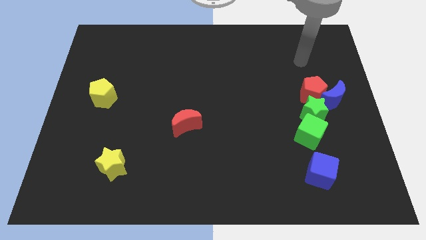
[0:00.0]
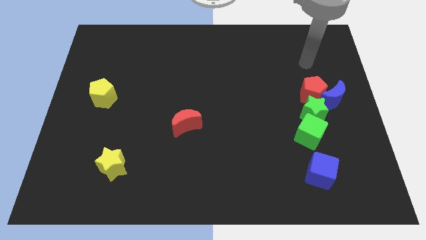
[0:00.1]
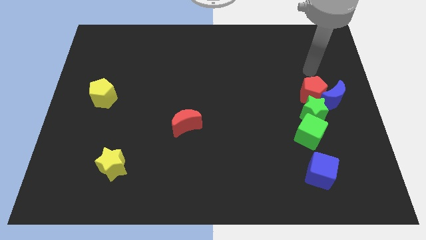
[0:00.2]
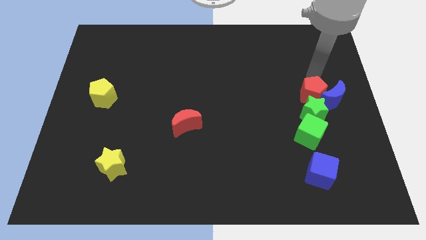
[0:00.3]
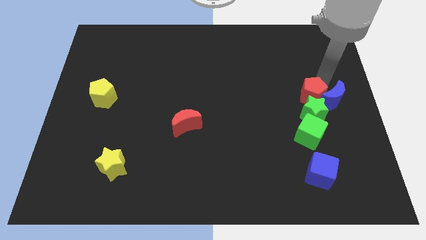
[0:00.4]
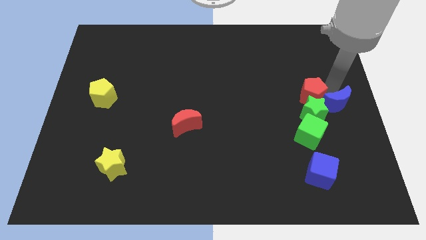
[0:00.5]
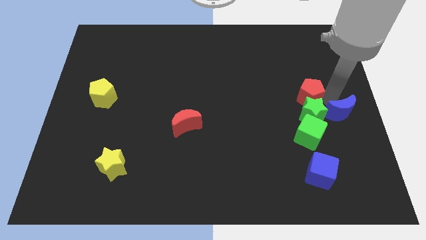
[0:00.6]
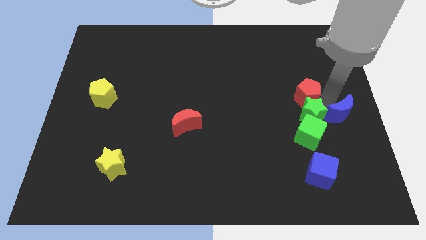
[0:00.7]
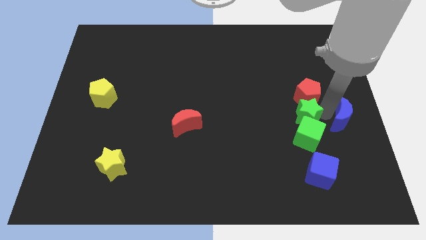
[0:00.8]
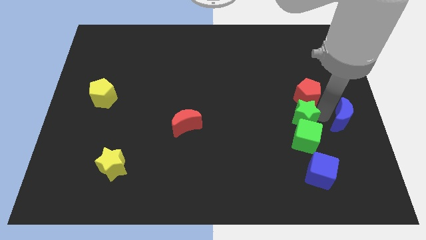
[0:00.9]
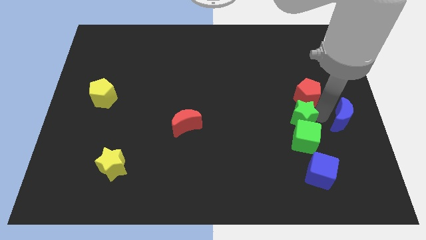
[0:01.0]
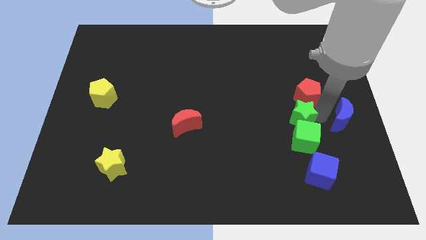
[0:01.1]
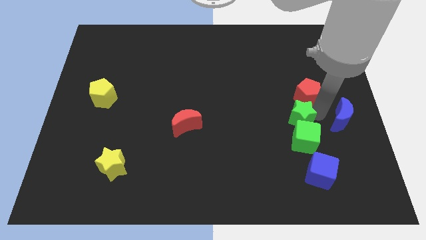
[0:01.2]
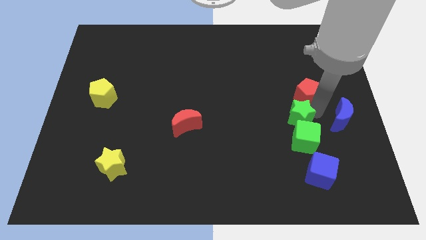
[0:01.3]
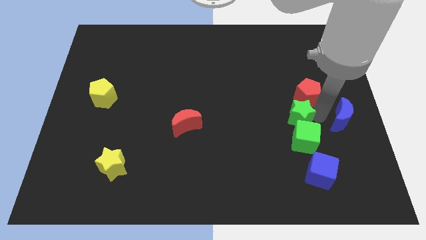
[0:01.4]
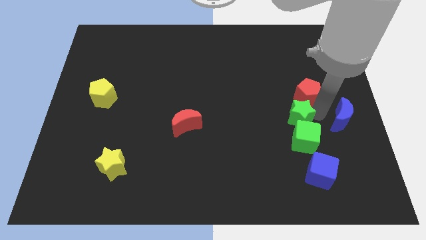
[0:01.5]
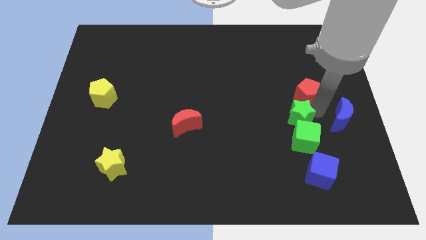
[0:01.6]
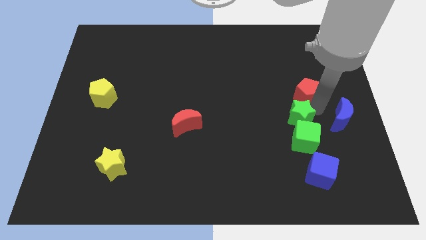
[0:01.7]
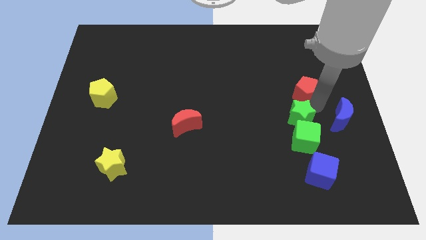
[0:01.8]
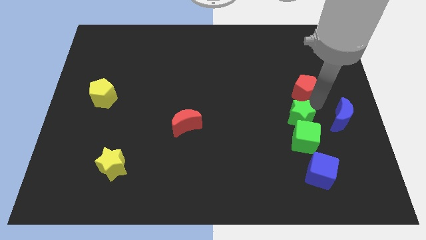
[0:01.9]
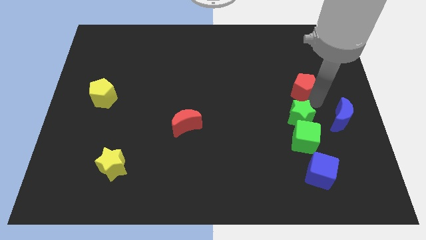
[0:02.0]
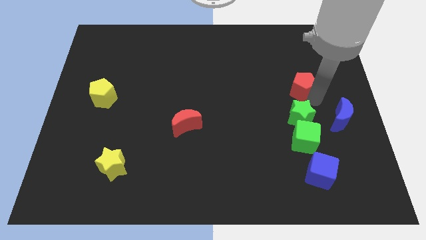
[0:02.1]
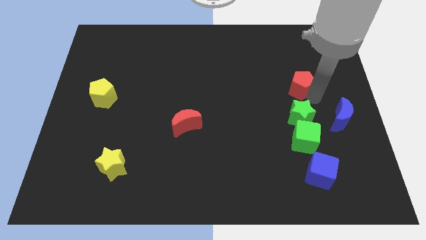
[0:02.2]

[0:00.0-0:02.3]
separate the red pentagon from the blue moon and green star

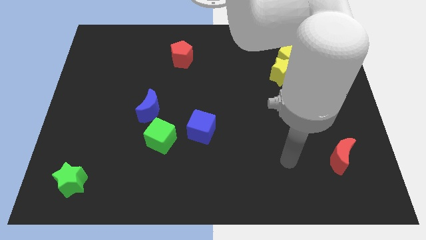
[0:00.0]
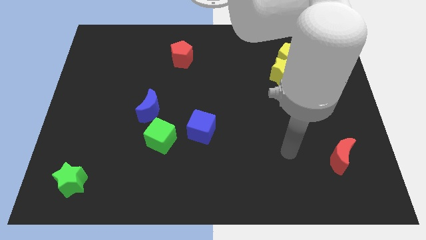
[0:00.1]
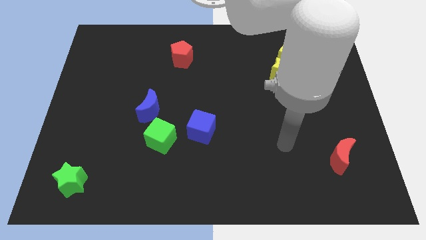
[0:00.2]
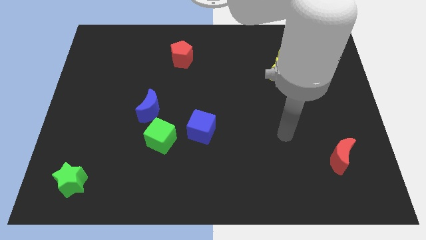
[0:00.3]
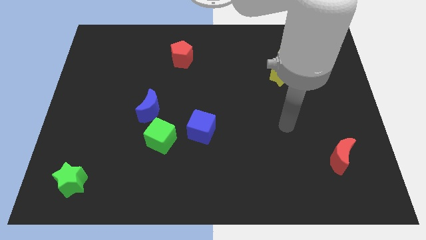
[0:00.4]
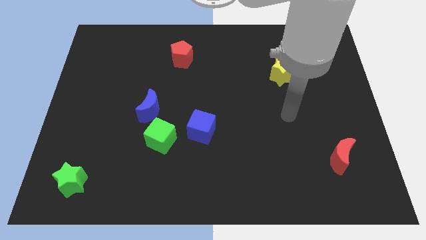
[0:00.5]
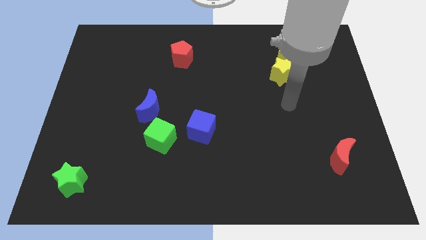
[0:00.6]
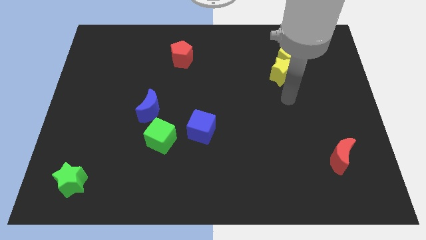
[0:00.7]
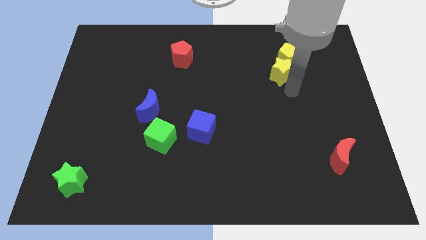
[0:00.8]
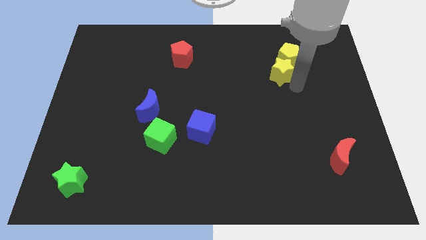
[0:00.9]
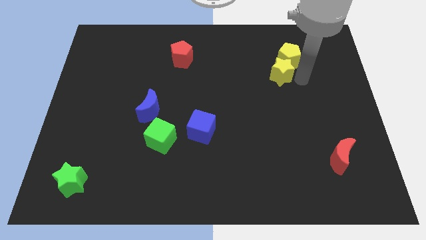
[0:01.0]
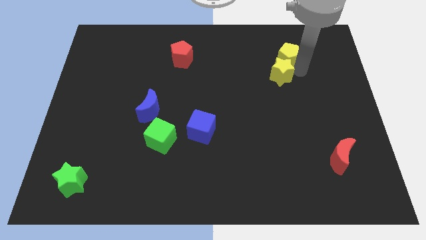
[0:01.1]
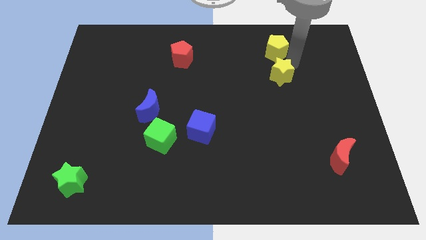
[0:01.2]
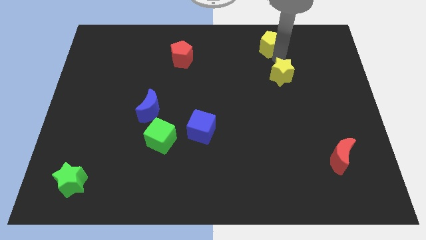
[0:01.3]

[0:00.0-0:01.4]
separate the yellow star from the yellow pentagon

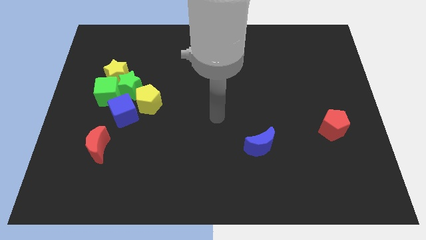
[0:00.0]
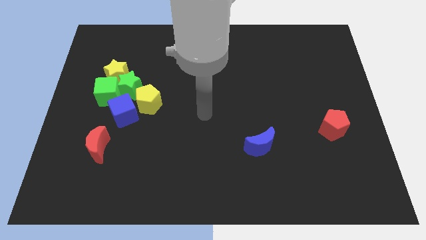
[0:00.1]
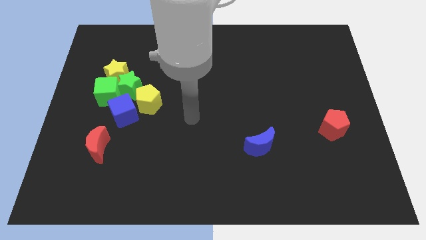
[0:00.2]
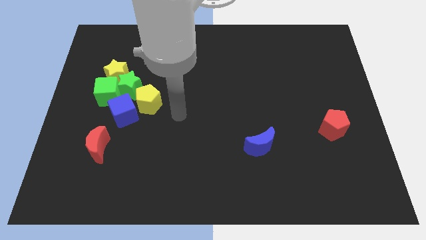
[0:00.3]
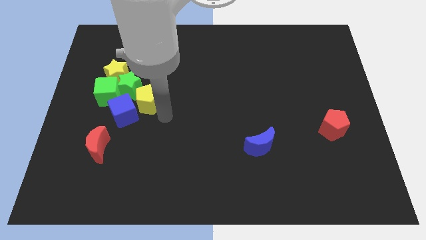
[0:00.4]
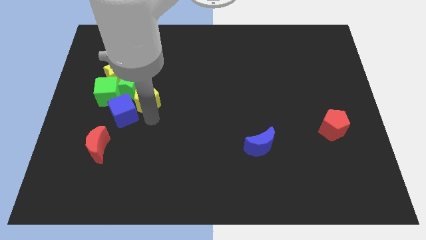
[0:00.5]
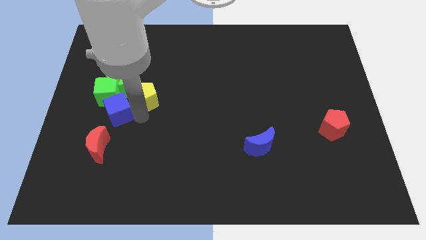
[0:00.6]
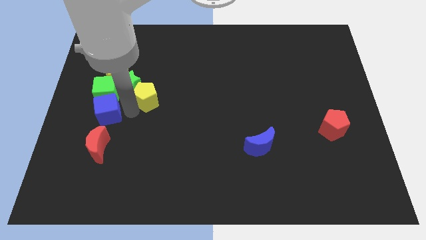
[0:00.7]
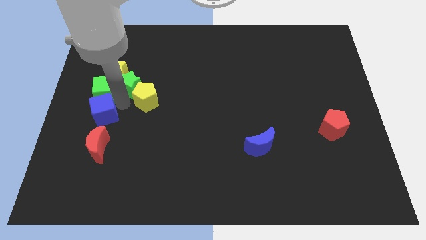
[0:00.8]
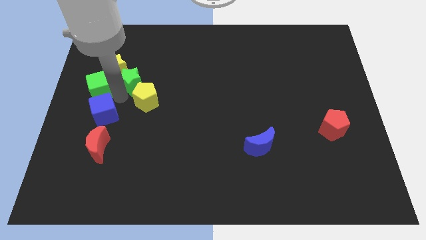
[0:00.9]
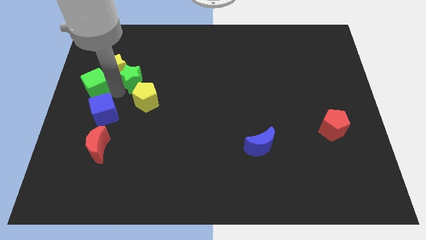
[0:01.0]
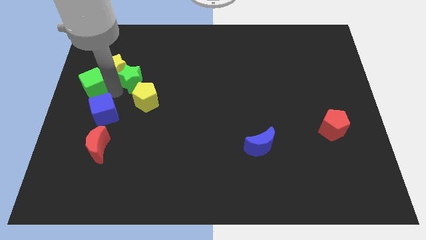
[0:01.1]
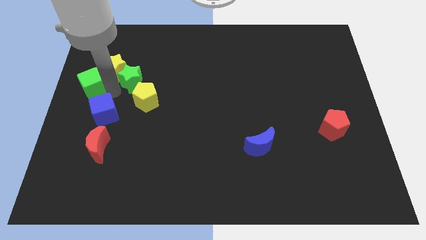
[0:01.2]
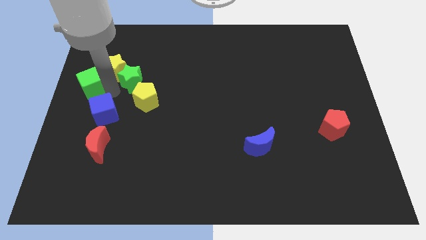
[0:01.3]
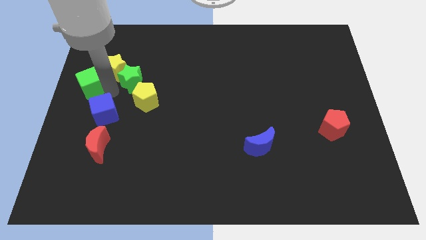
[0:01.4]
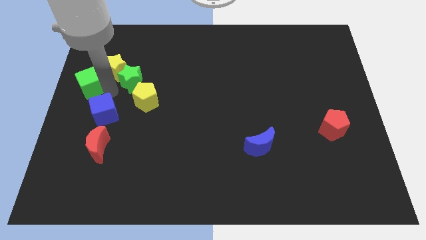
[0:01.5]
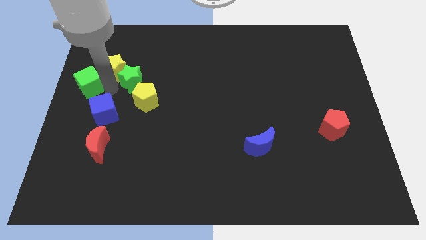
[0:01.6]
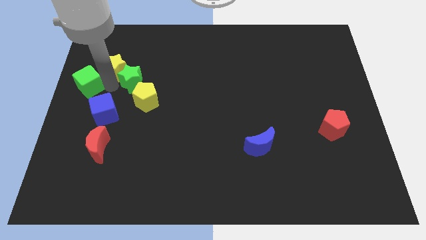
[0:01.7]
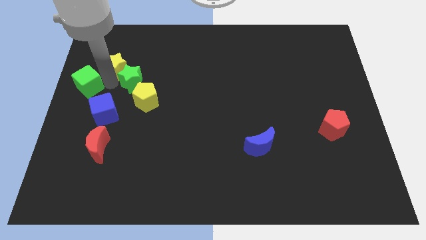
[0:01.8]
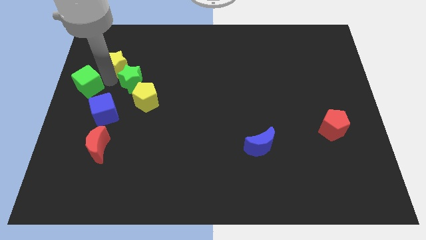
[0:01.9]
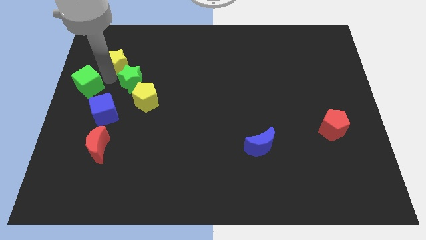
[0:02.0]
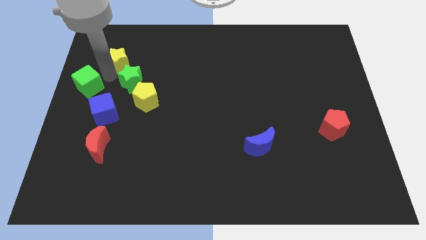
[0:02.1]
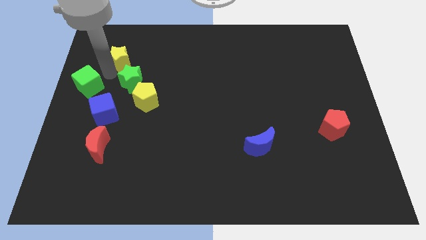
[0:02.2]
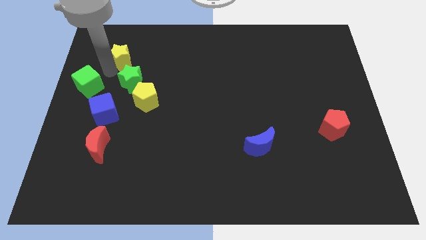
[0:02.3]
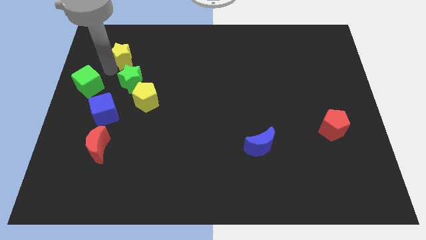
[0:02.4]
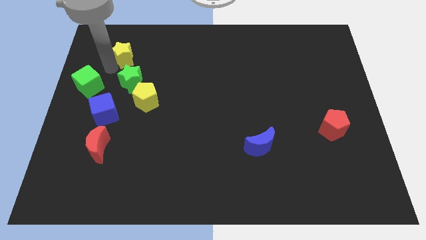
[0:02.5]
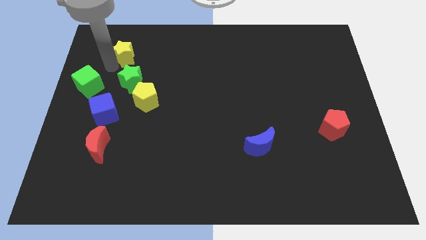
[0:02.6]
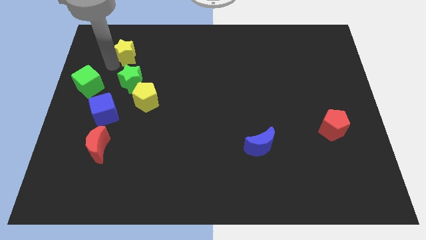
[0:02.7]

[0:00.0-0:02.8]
separate the yellow star from the green star and green cube

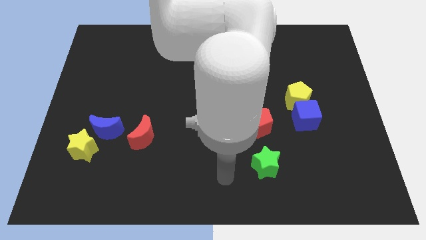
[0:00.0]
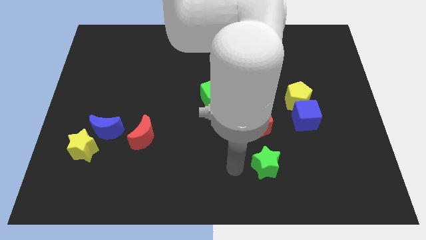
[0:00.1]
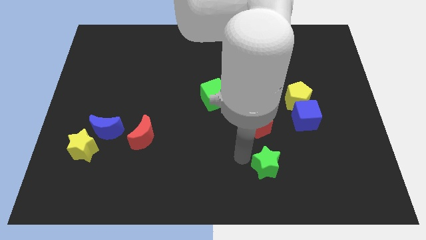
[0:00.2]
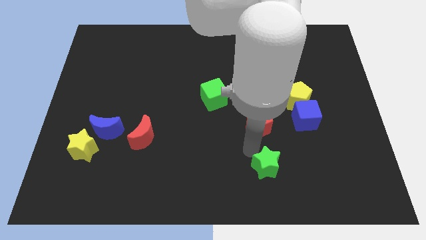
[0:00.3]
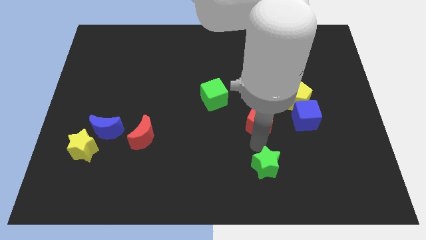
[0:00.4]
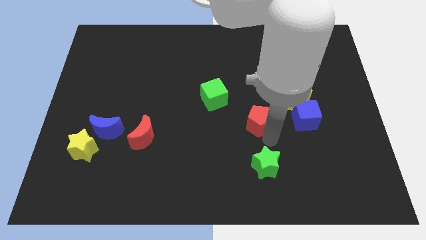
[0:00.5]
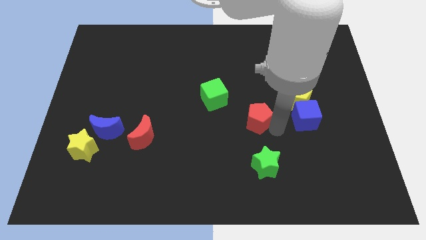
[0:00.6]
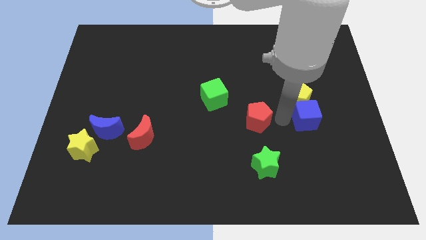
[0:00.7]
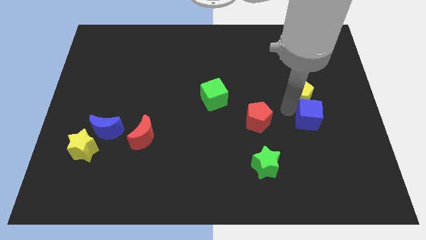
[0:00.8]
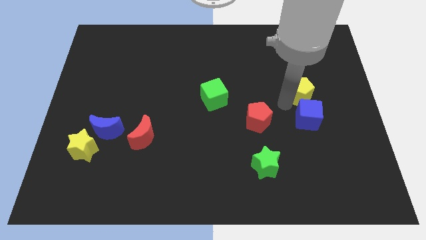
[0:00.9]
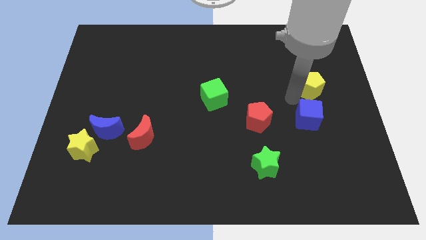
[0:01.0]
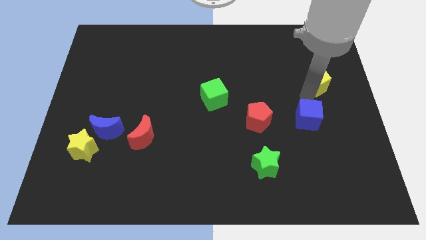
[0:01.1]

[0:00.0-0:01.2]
separate the blue cube from the yellow pentagon

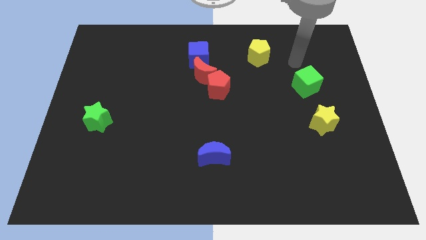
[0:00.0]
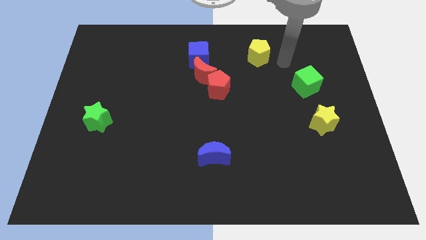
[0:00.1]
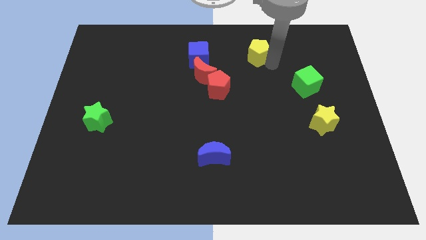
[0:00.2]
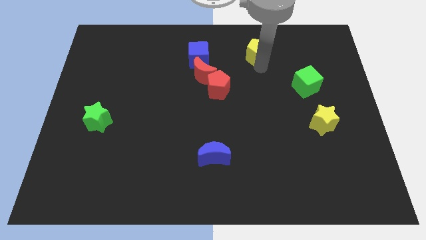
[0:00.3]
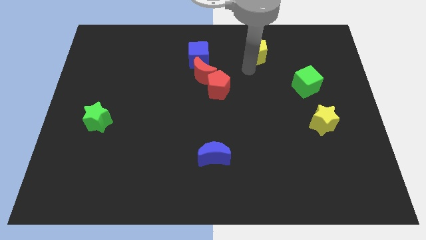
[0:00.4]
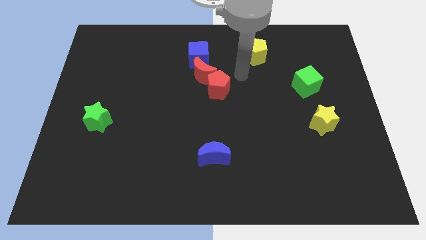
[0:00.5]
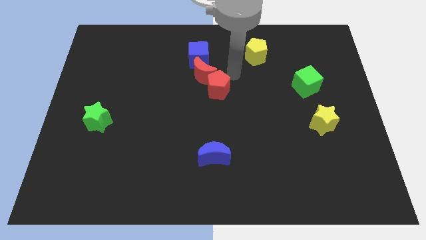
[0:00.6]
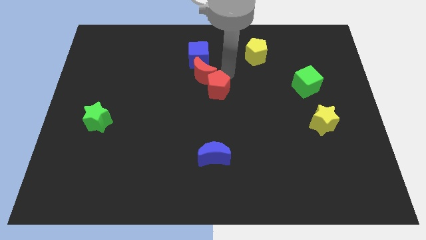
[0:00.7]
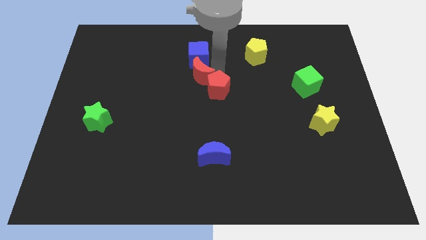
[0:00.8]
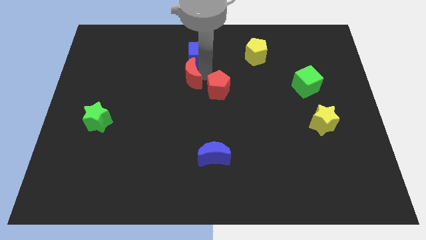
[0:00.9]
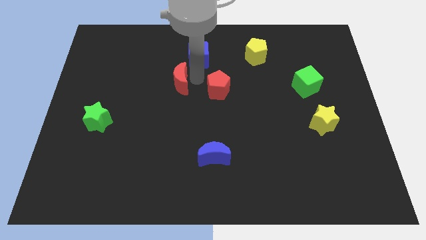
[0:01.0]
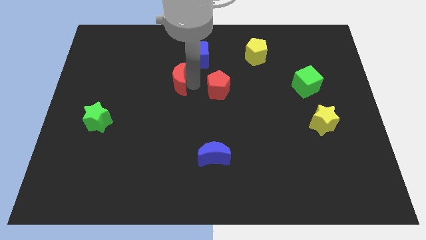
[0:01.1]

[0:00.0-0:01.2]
separate the red pentagon from the red moon

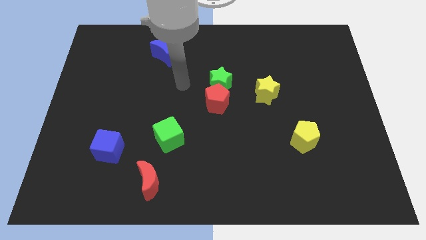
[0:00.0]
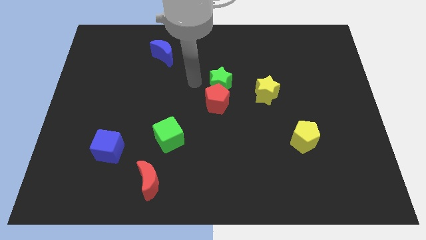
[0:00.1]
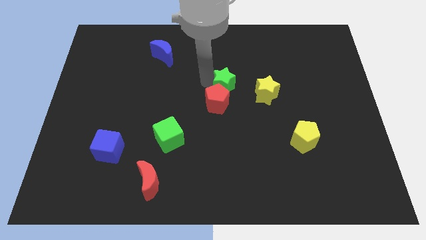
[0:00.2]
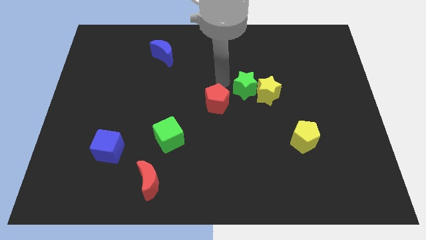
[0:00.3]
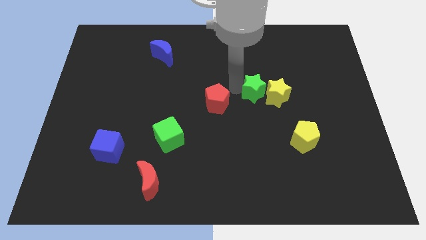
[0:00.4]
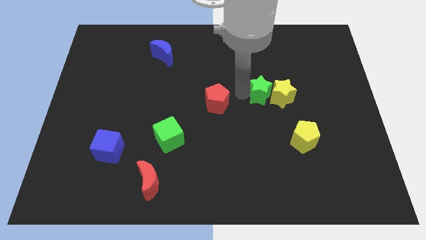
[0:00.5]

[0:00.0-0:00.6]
move the red pentagon away from the green star
